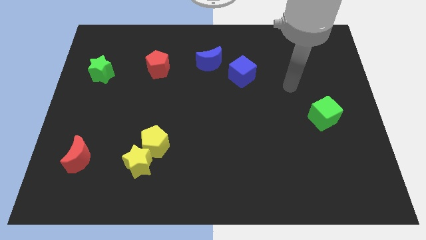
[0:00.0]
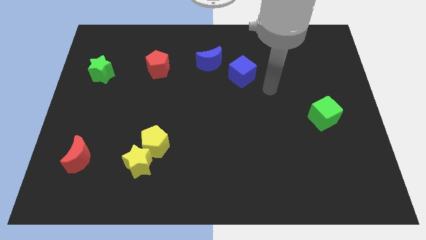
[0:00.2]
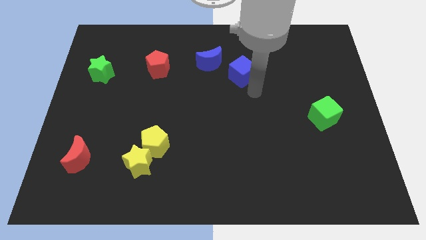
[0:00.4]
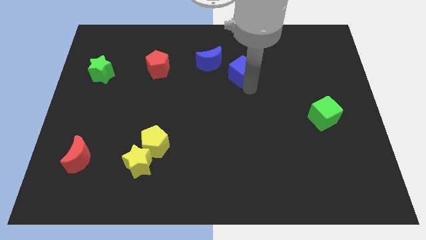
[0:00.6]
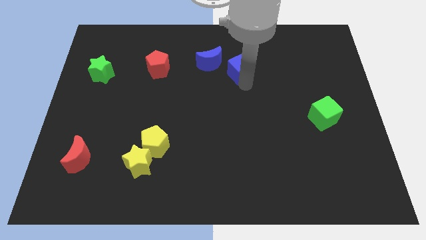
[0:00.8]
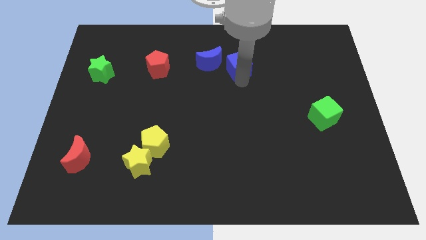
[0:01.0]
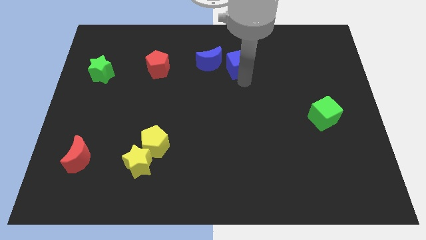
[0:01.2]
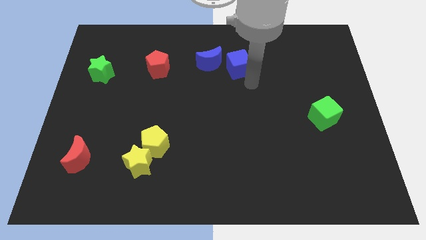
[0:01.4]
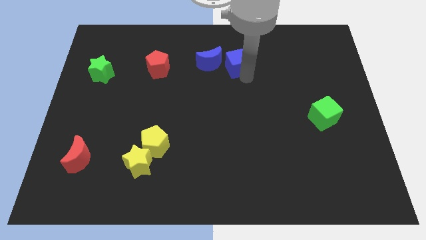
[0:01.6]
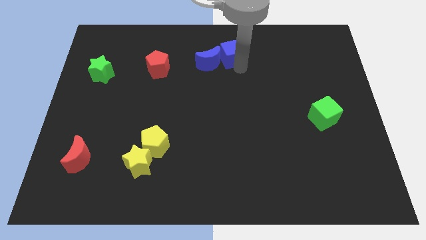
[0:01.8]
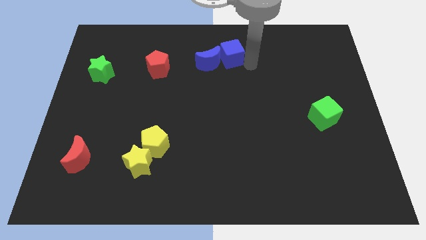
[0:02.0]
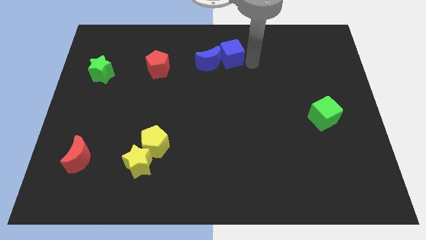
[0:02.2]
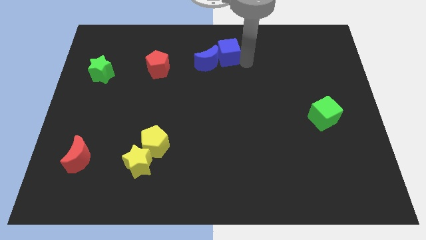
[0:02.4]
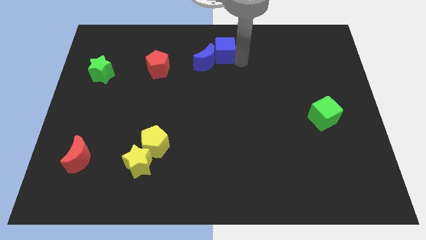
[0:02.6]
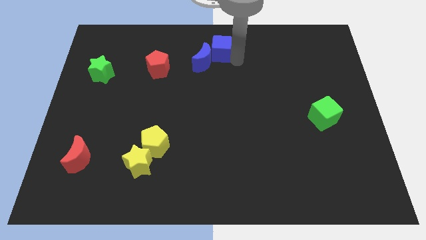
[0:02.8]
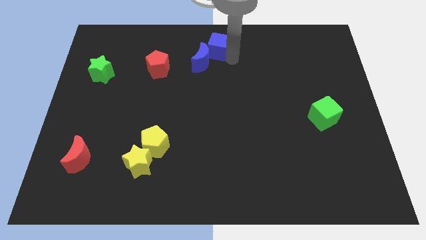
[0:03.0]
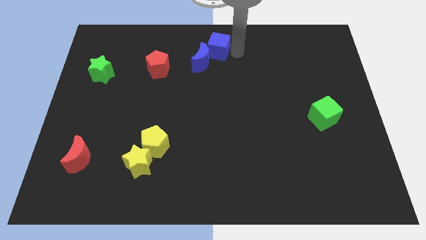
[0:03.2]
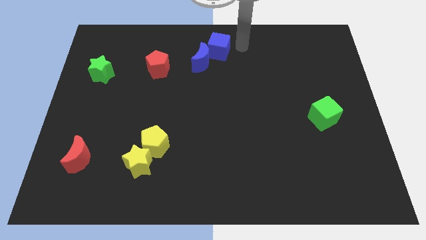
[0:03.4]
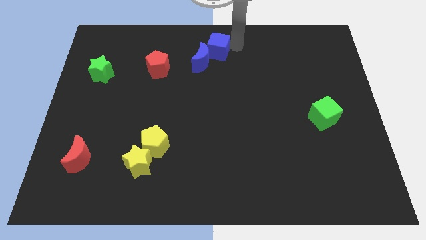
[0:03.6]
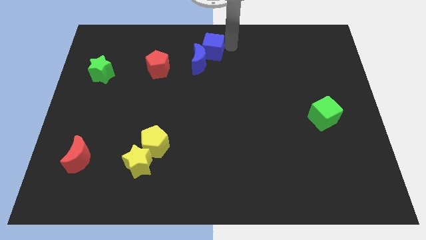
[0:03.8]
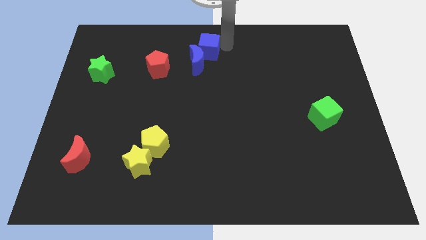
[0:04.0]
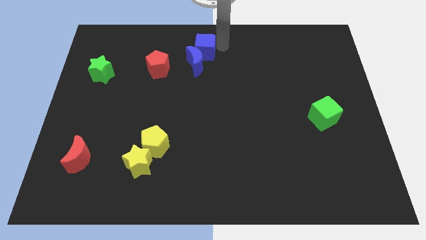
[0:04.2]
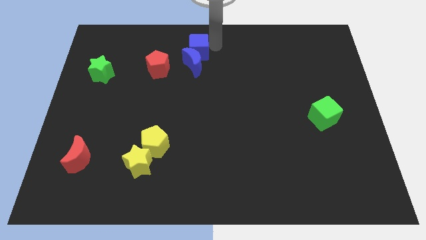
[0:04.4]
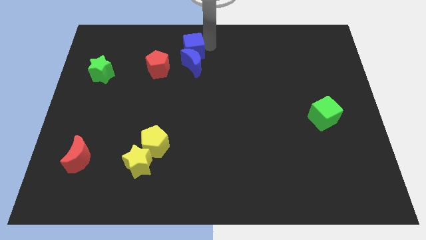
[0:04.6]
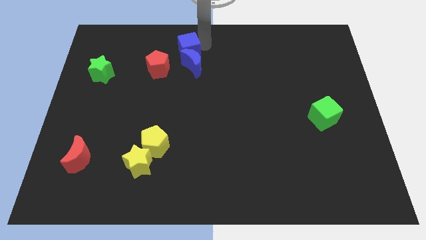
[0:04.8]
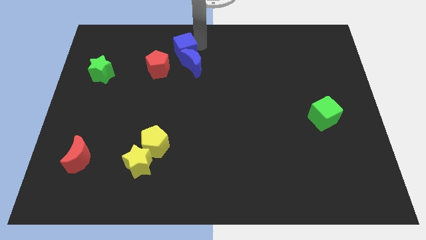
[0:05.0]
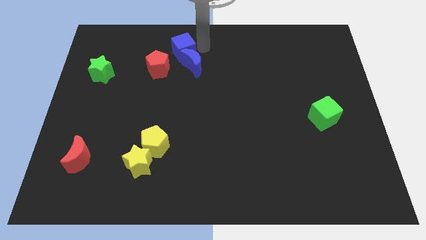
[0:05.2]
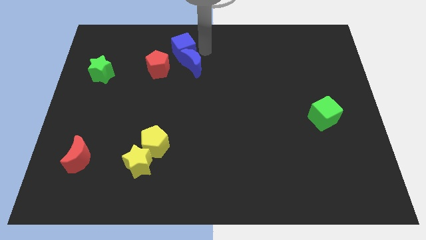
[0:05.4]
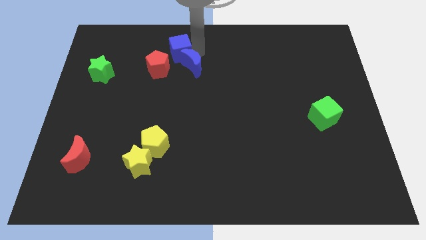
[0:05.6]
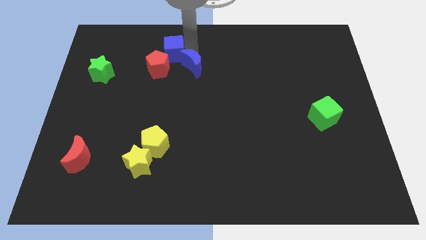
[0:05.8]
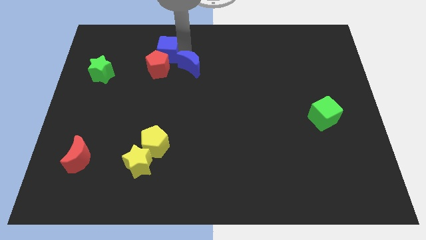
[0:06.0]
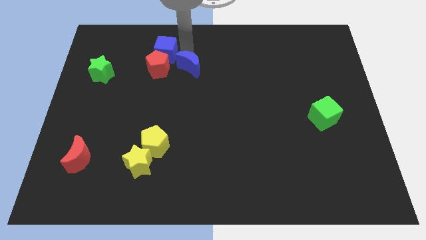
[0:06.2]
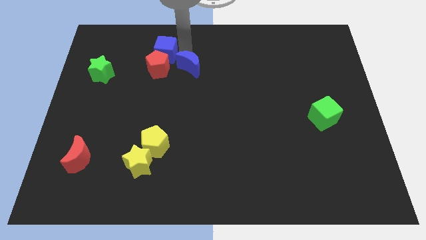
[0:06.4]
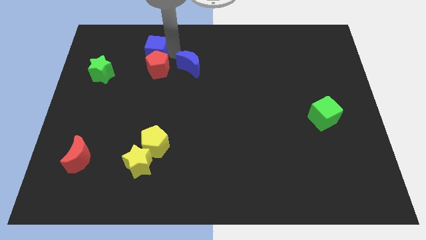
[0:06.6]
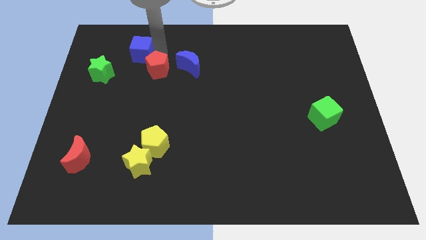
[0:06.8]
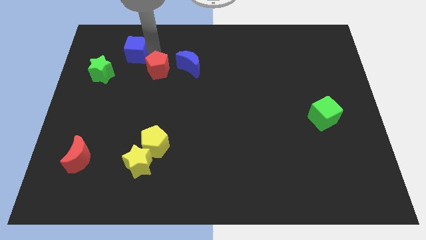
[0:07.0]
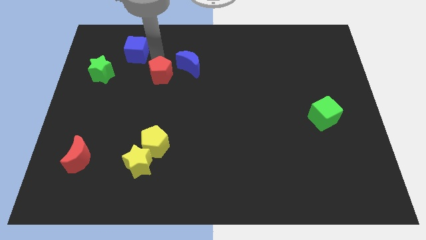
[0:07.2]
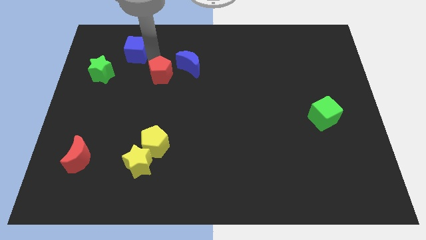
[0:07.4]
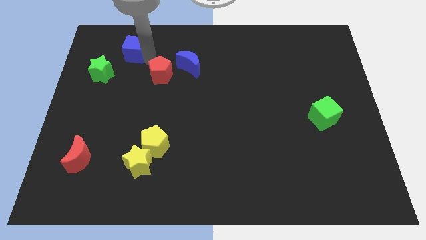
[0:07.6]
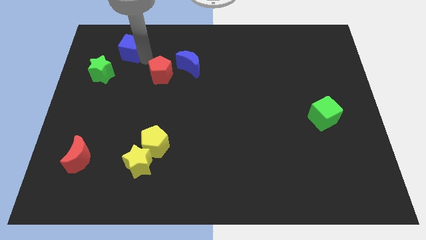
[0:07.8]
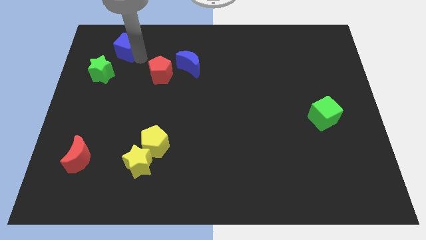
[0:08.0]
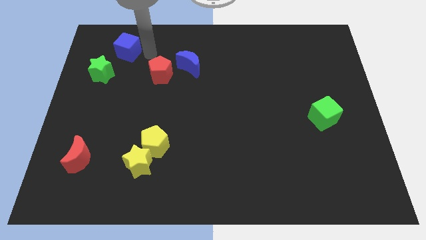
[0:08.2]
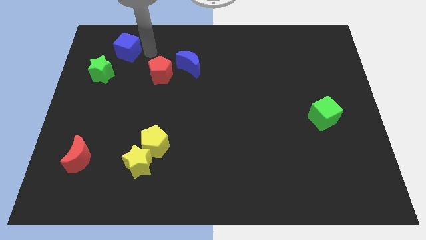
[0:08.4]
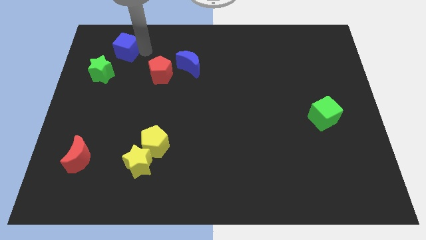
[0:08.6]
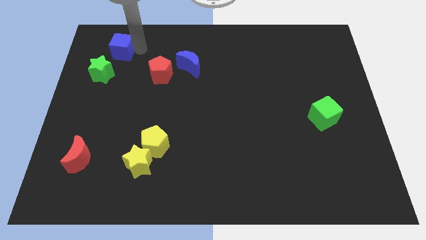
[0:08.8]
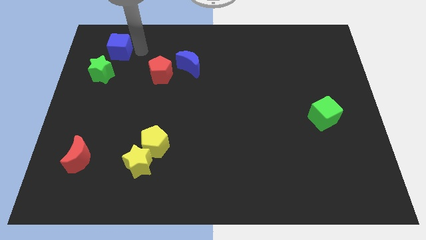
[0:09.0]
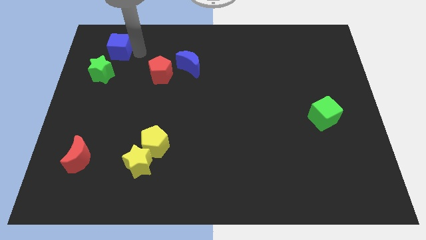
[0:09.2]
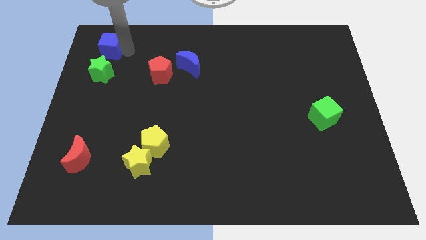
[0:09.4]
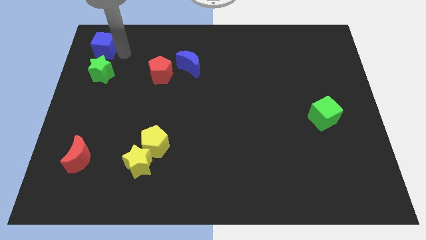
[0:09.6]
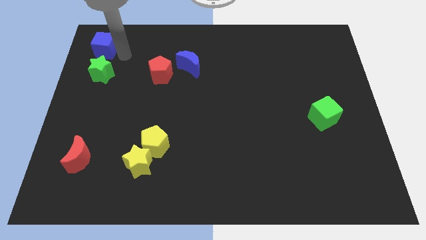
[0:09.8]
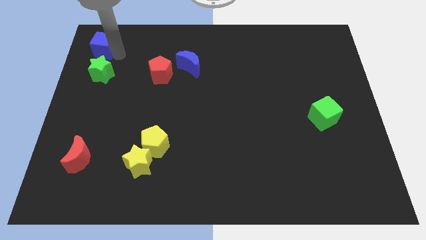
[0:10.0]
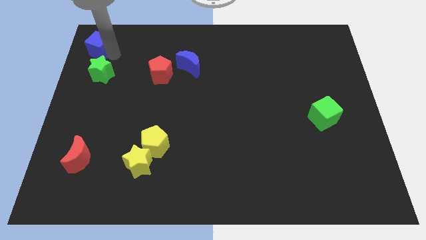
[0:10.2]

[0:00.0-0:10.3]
move the blue cube to the top left

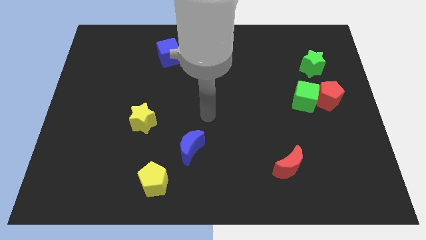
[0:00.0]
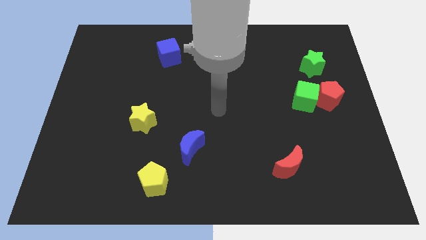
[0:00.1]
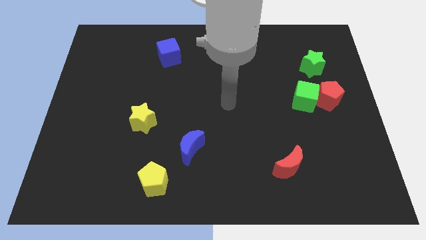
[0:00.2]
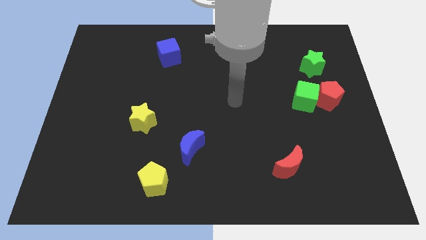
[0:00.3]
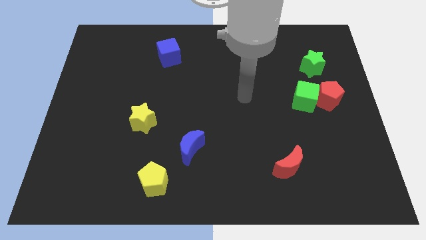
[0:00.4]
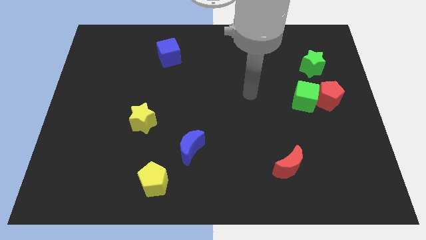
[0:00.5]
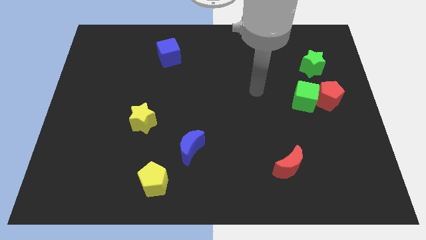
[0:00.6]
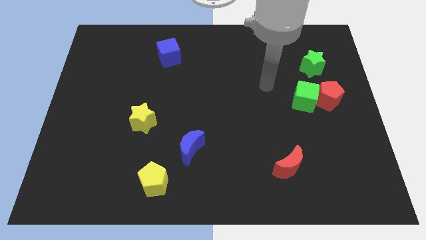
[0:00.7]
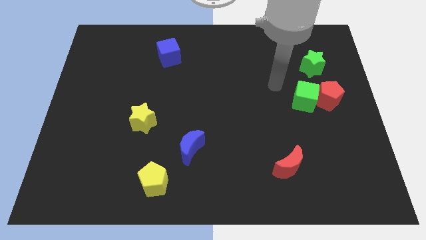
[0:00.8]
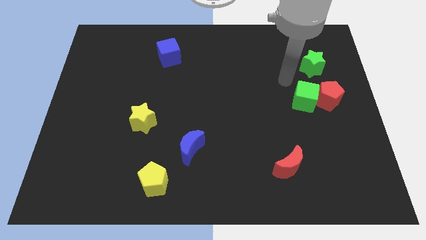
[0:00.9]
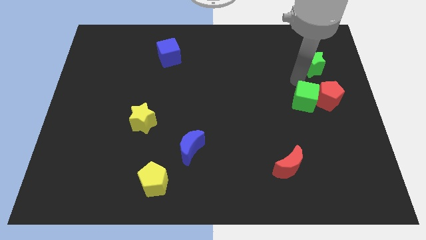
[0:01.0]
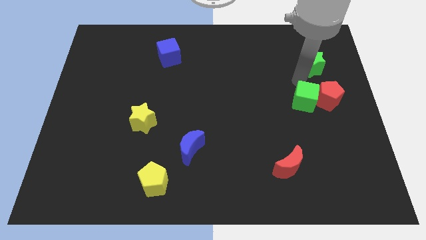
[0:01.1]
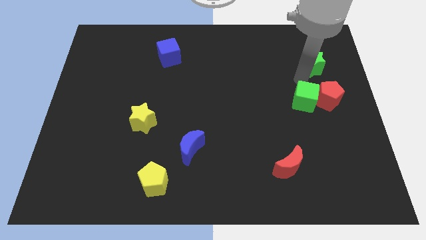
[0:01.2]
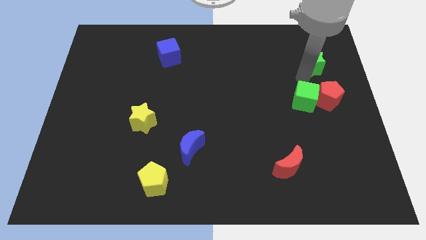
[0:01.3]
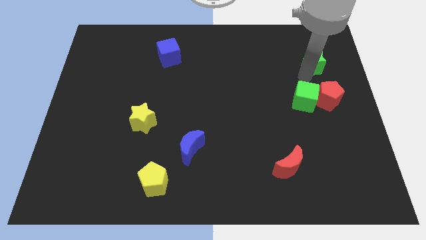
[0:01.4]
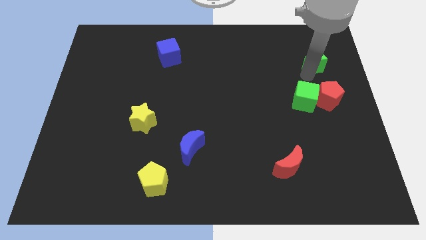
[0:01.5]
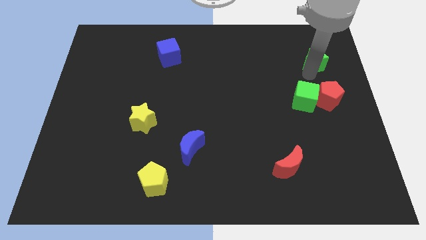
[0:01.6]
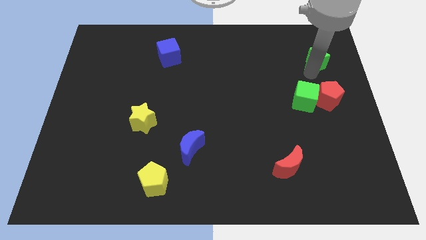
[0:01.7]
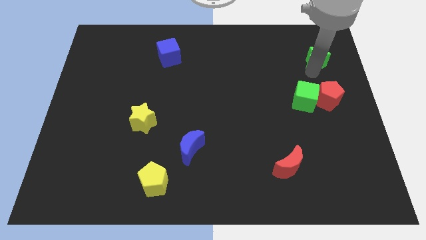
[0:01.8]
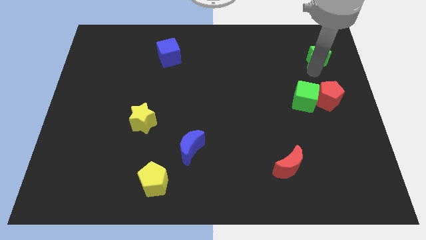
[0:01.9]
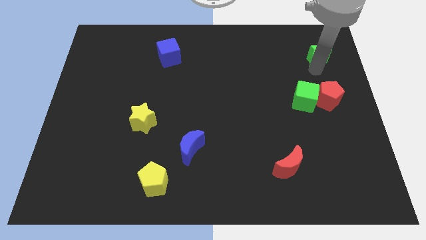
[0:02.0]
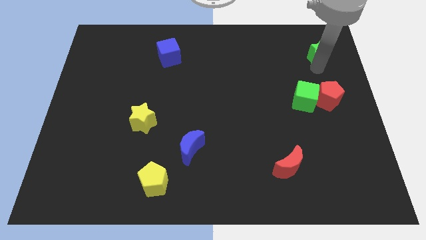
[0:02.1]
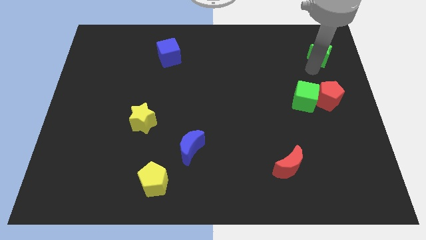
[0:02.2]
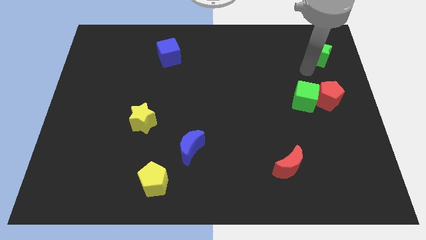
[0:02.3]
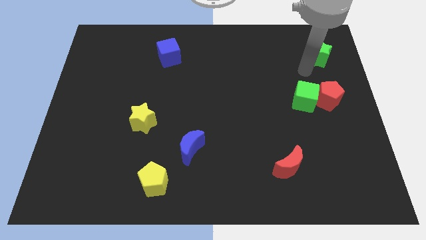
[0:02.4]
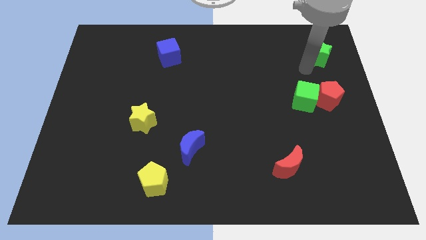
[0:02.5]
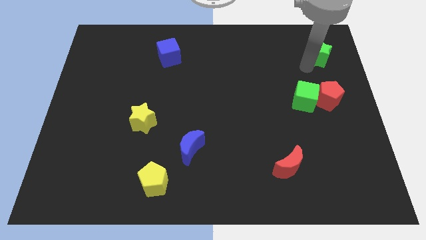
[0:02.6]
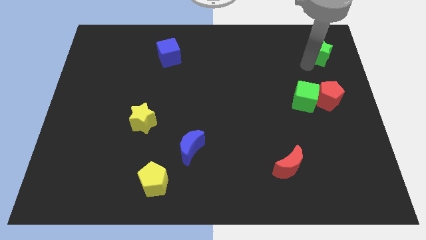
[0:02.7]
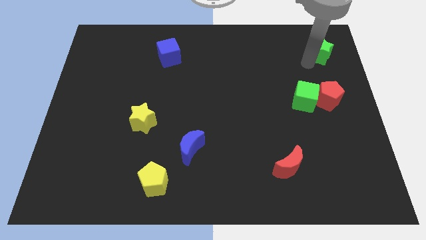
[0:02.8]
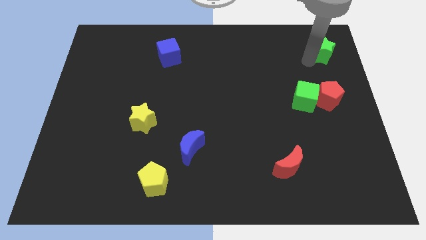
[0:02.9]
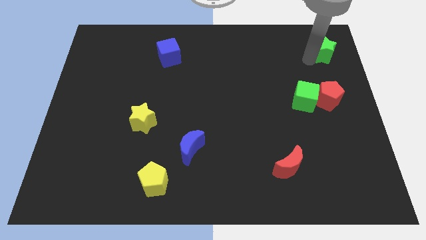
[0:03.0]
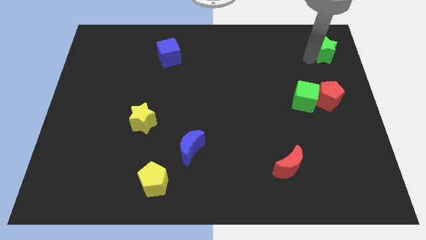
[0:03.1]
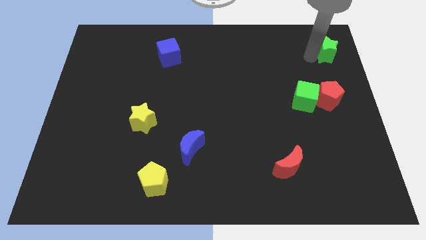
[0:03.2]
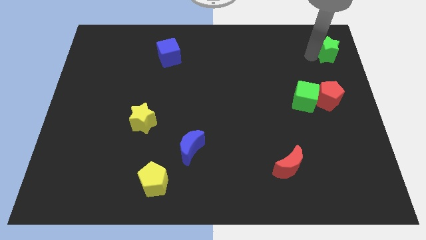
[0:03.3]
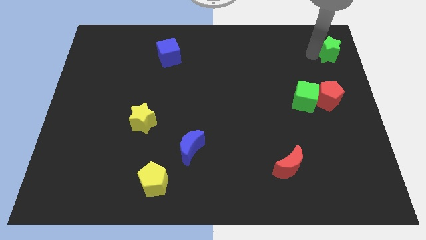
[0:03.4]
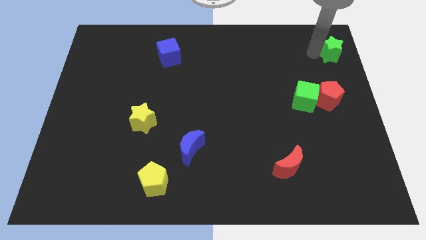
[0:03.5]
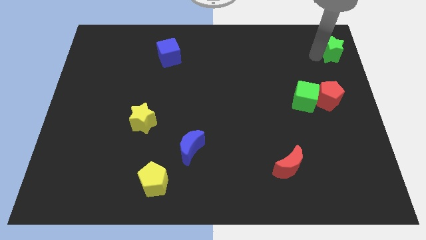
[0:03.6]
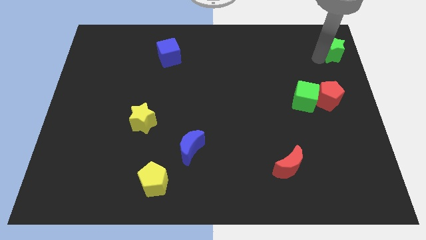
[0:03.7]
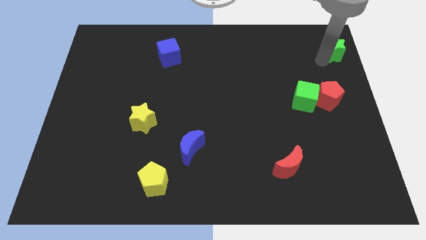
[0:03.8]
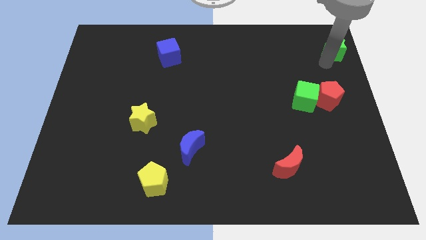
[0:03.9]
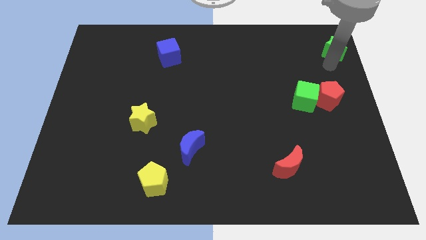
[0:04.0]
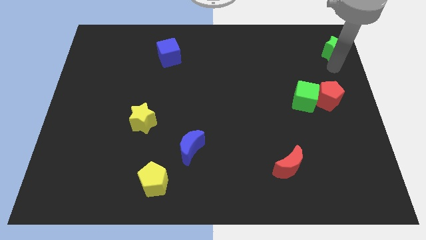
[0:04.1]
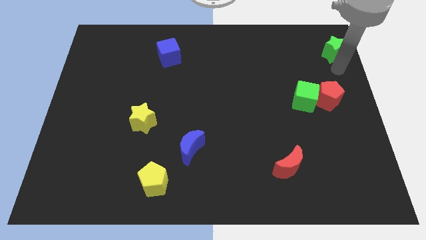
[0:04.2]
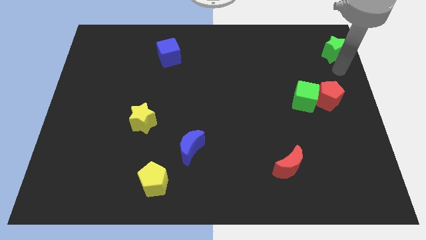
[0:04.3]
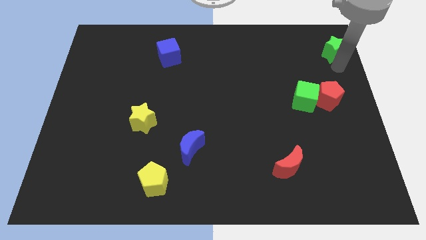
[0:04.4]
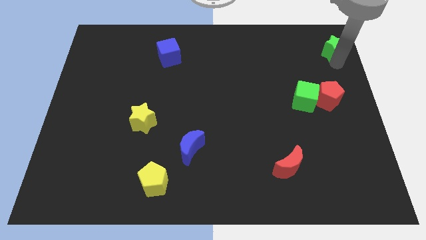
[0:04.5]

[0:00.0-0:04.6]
move the green star to the top right
